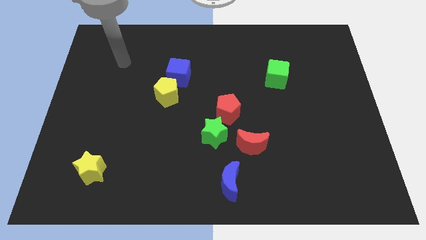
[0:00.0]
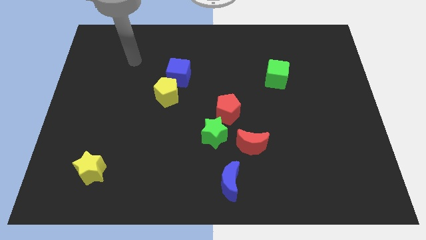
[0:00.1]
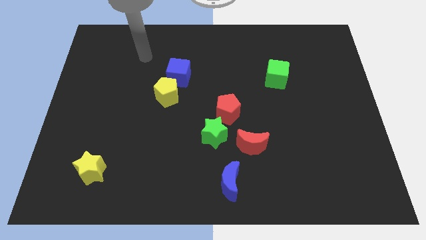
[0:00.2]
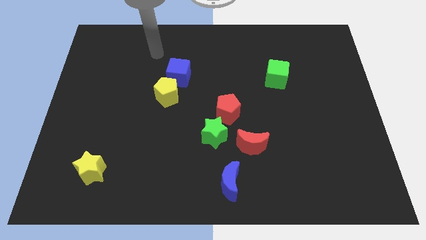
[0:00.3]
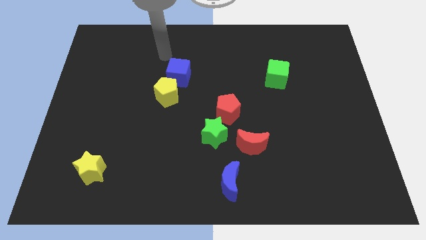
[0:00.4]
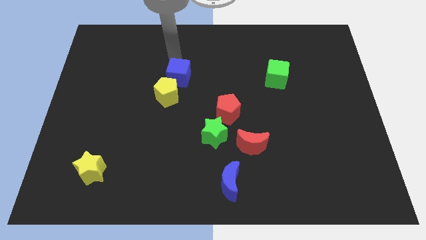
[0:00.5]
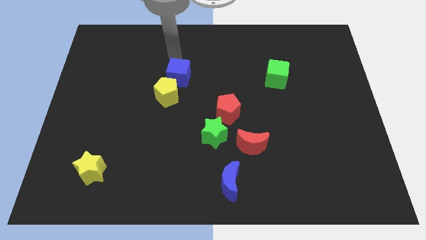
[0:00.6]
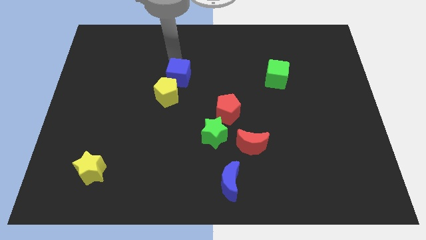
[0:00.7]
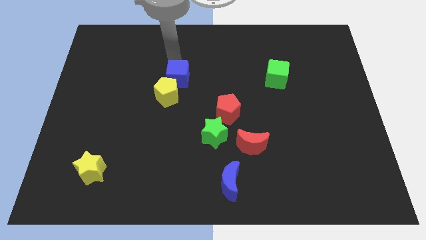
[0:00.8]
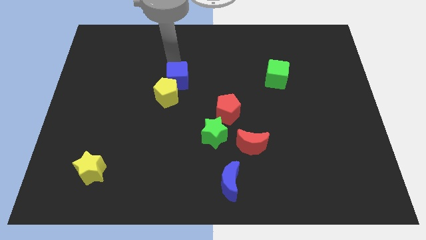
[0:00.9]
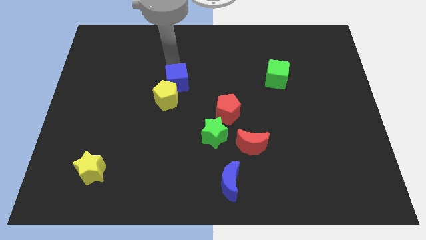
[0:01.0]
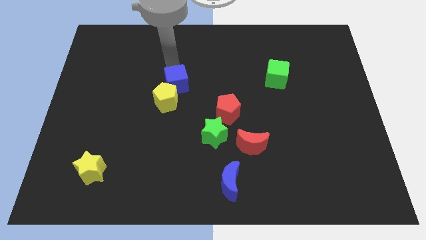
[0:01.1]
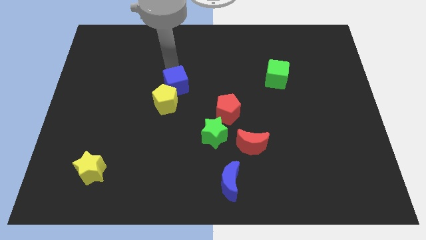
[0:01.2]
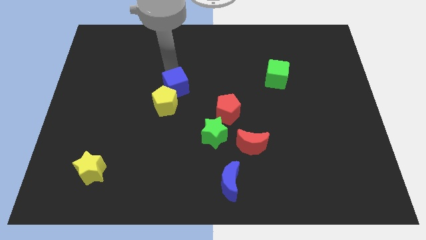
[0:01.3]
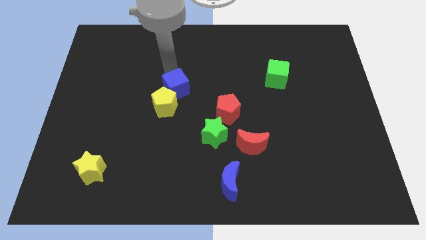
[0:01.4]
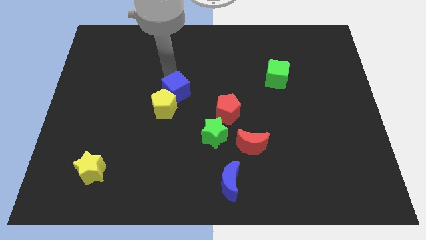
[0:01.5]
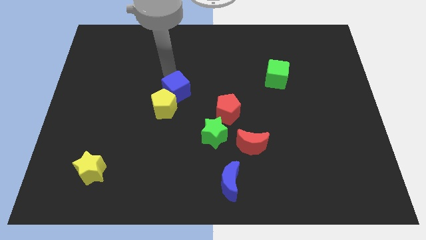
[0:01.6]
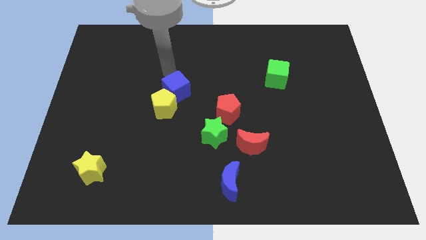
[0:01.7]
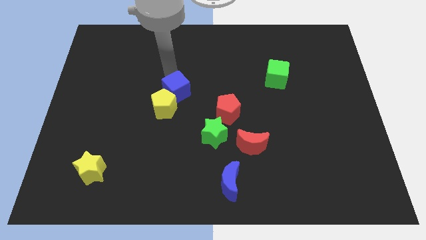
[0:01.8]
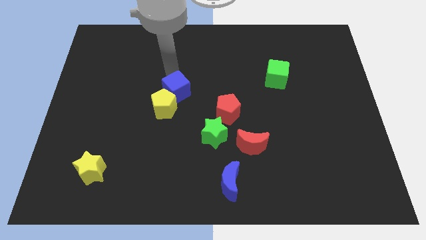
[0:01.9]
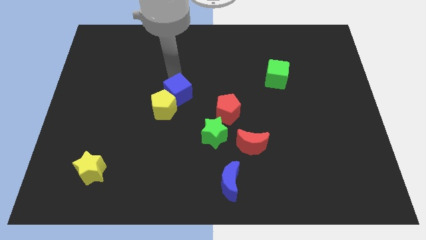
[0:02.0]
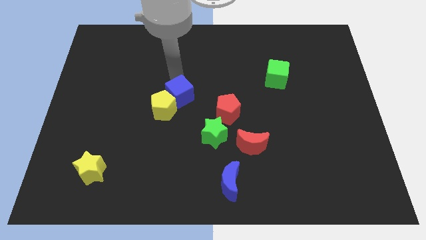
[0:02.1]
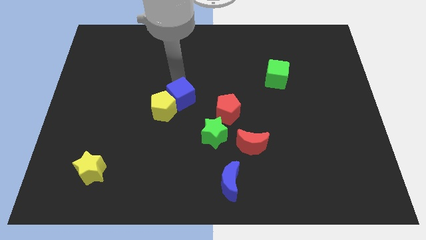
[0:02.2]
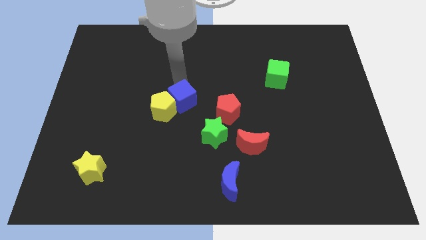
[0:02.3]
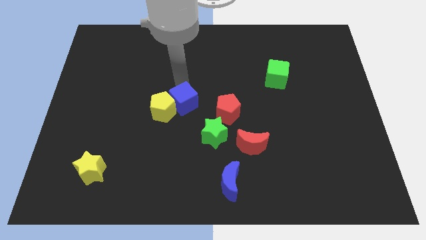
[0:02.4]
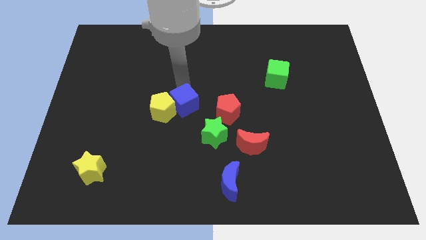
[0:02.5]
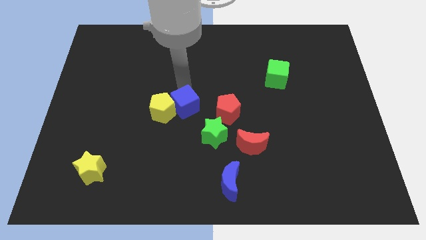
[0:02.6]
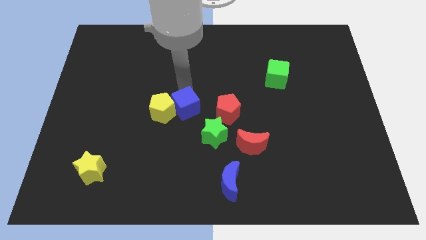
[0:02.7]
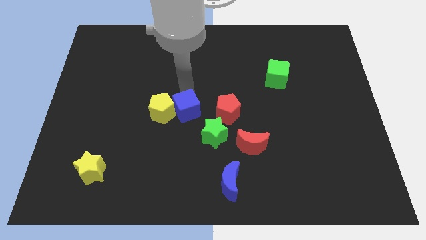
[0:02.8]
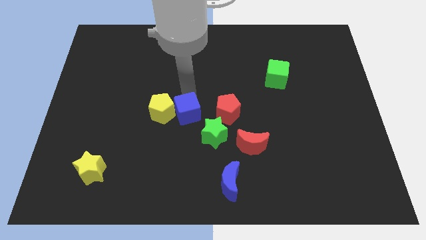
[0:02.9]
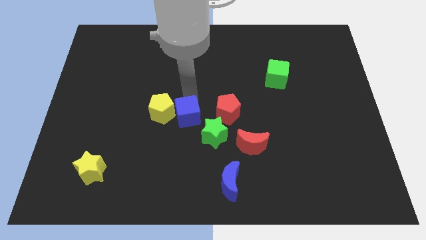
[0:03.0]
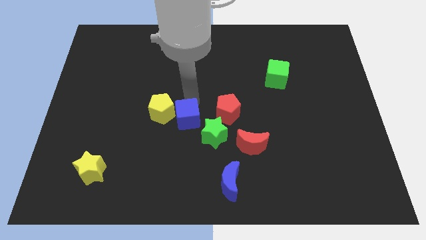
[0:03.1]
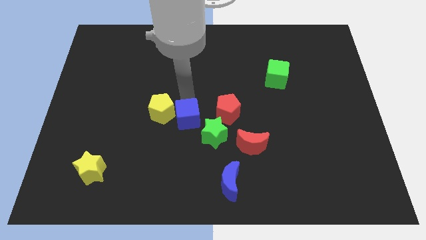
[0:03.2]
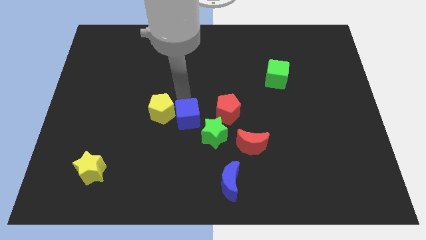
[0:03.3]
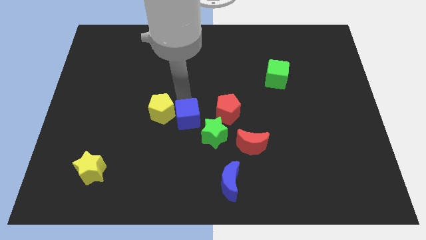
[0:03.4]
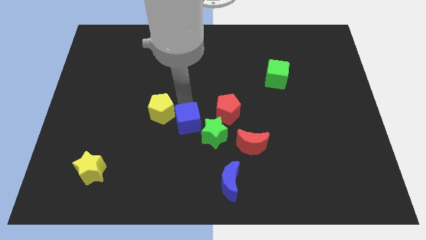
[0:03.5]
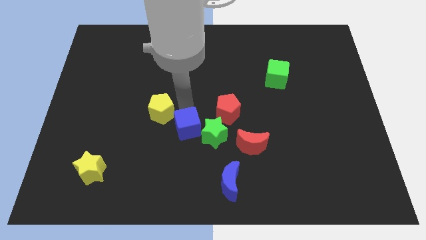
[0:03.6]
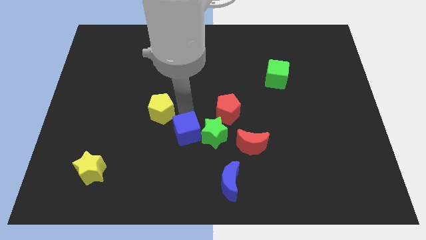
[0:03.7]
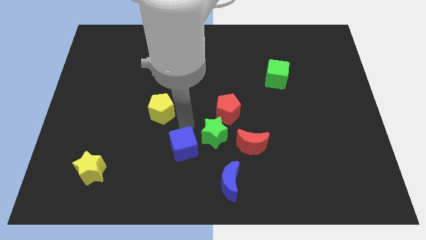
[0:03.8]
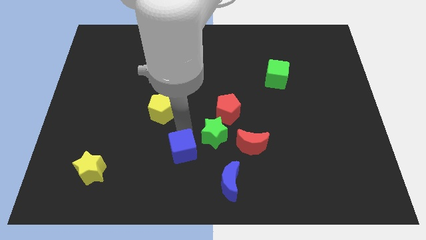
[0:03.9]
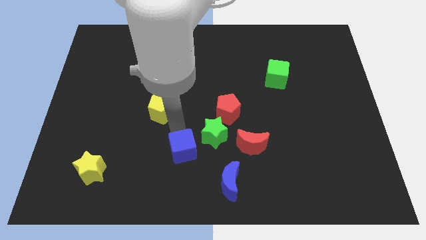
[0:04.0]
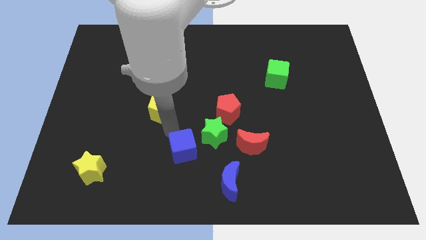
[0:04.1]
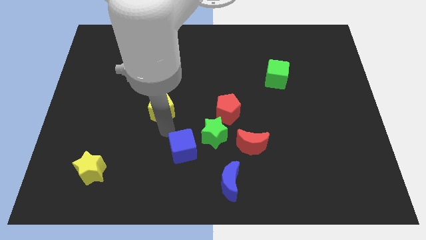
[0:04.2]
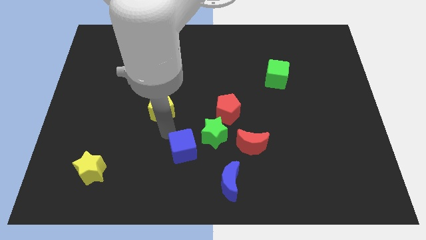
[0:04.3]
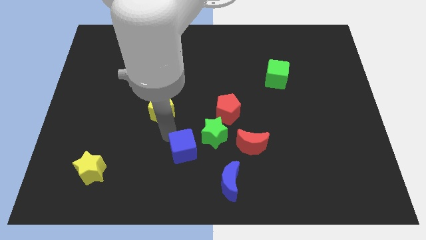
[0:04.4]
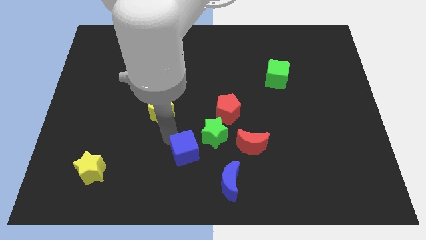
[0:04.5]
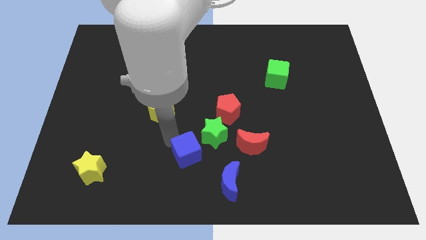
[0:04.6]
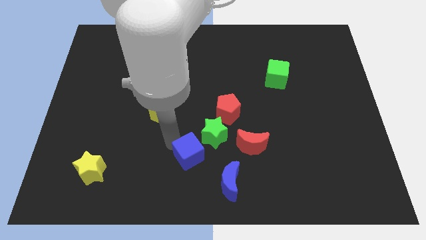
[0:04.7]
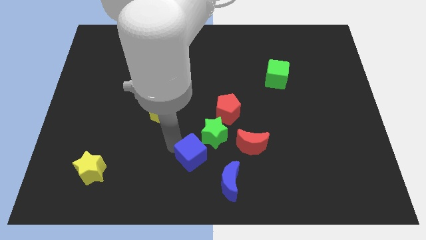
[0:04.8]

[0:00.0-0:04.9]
move the blue cube to the bottom

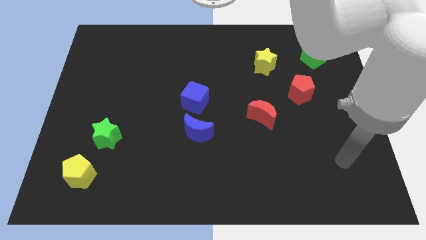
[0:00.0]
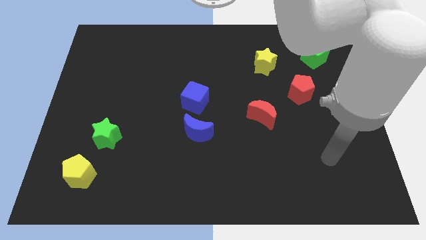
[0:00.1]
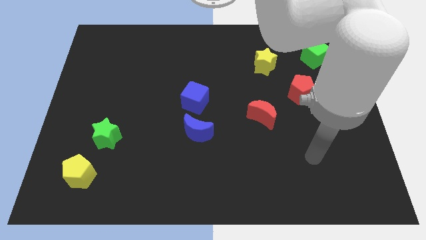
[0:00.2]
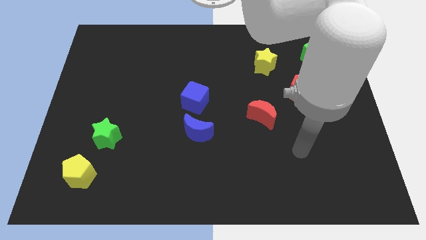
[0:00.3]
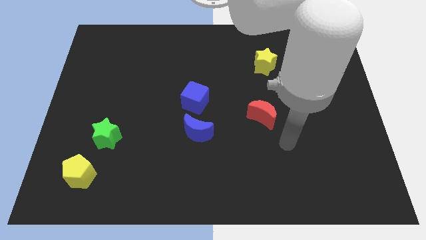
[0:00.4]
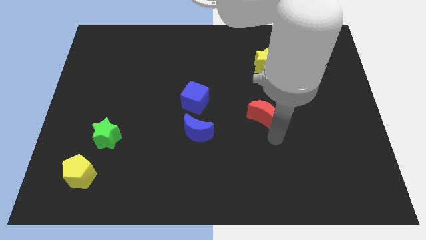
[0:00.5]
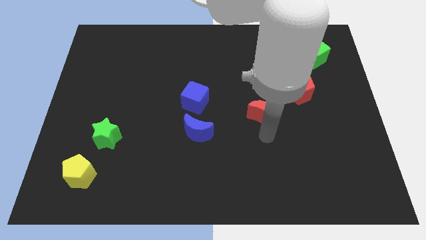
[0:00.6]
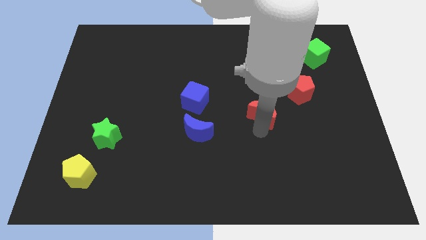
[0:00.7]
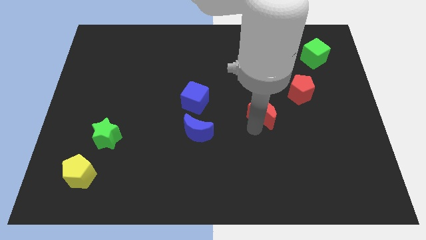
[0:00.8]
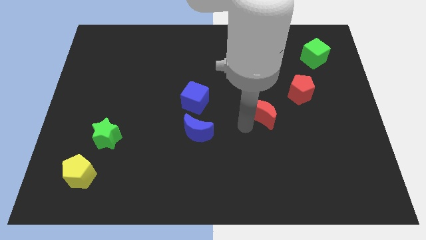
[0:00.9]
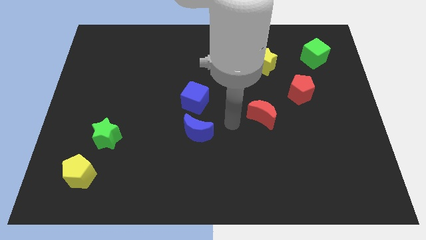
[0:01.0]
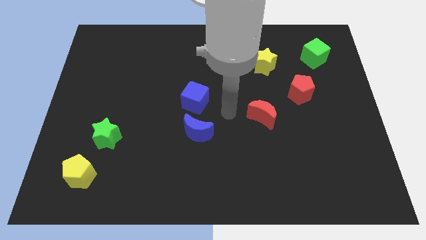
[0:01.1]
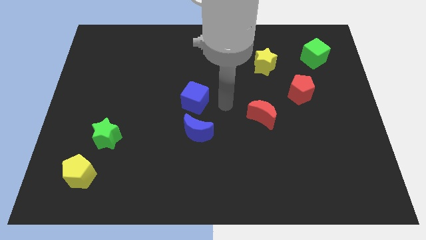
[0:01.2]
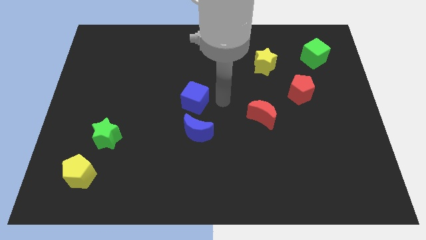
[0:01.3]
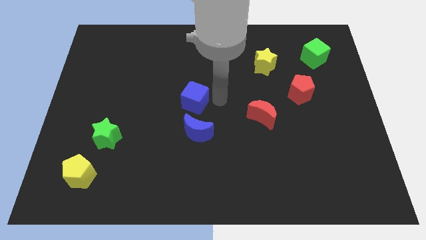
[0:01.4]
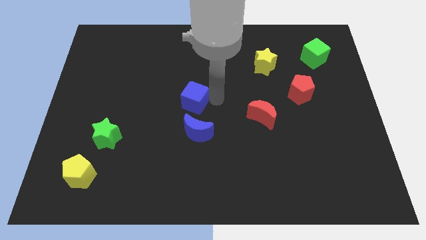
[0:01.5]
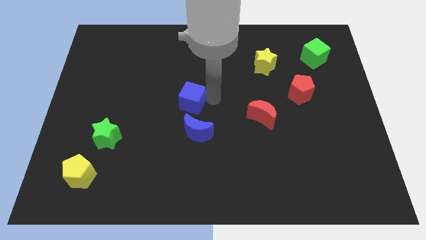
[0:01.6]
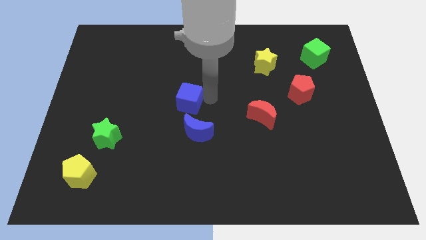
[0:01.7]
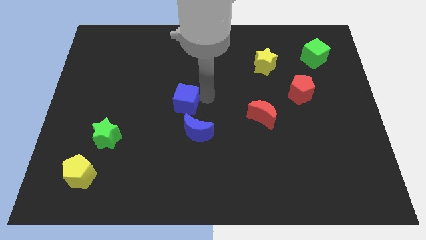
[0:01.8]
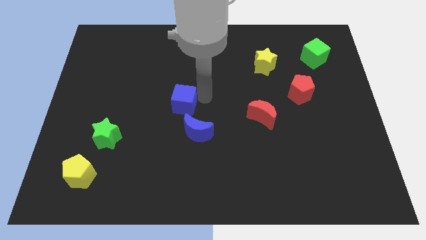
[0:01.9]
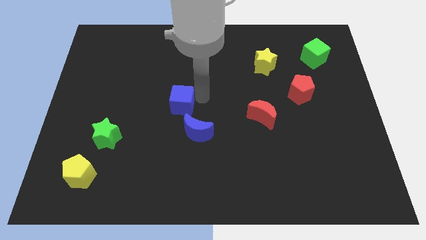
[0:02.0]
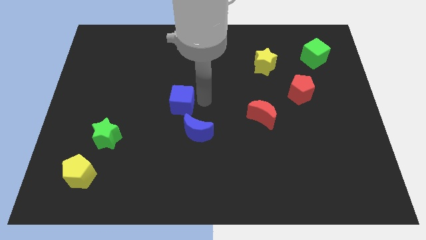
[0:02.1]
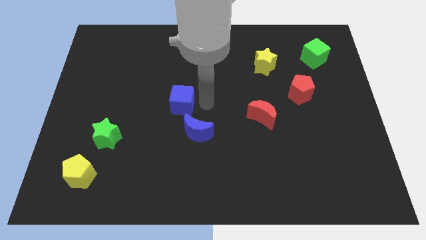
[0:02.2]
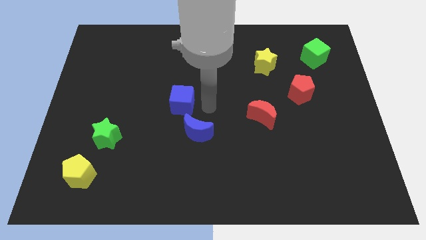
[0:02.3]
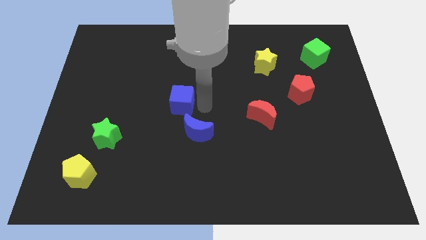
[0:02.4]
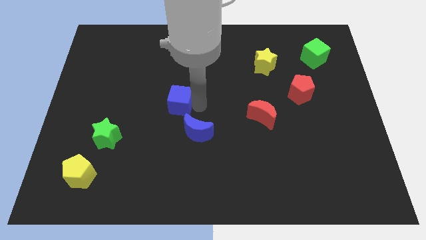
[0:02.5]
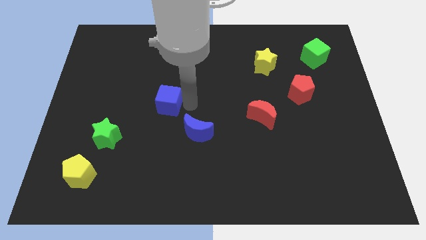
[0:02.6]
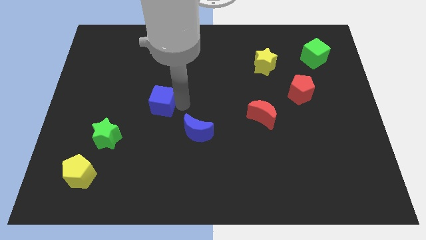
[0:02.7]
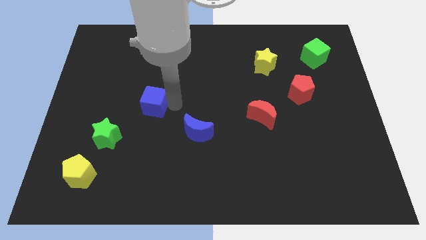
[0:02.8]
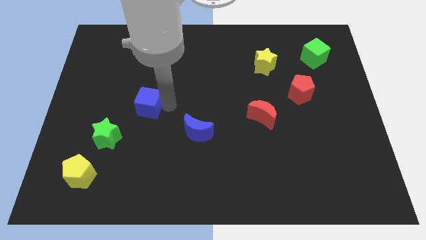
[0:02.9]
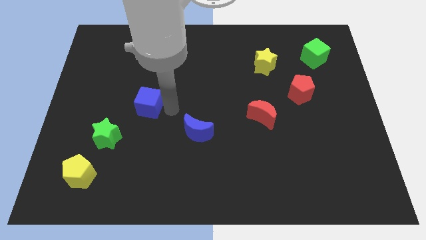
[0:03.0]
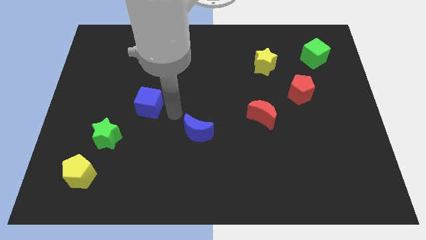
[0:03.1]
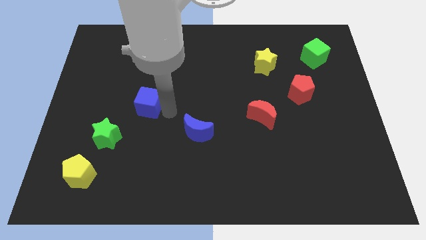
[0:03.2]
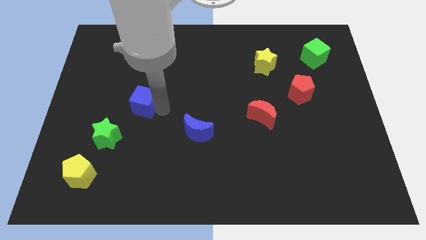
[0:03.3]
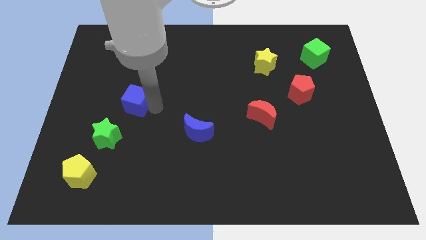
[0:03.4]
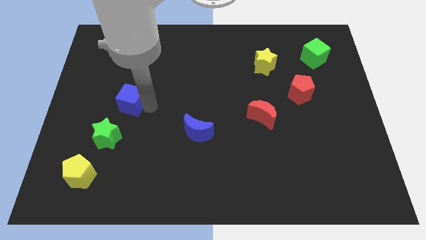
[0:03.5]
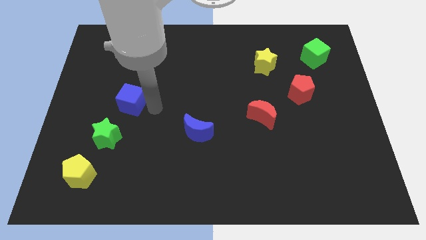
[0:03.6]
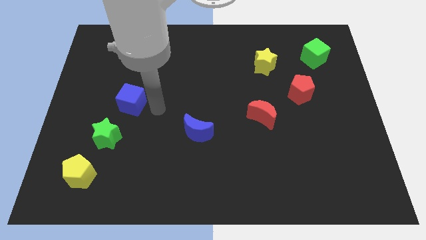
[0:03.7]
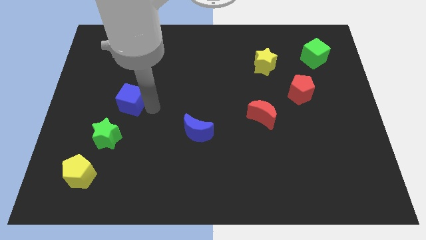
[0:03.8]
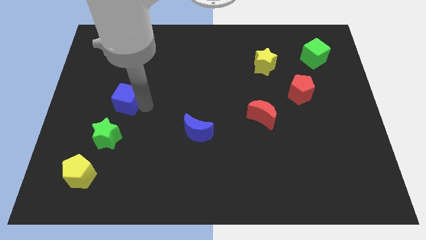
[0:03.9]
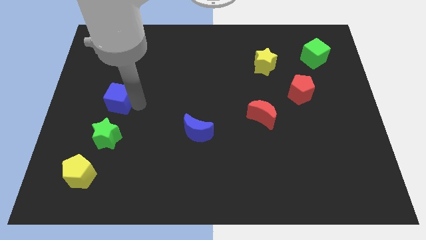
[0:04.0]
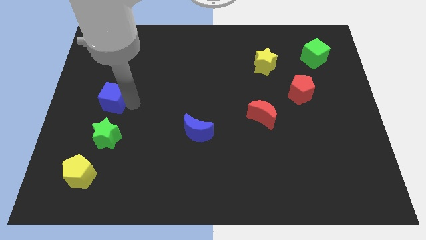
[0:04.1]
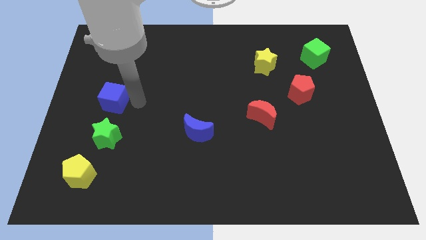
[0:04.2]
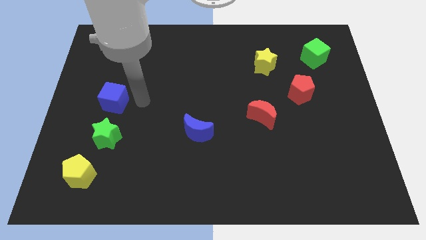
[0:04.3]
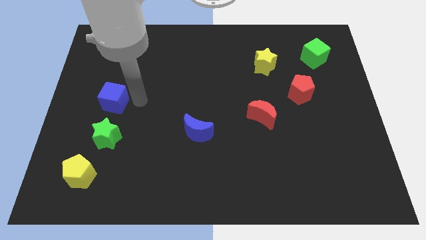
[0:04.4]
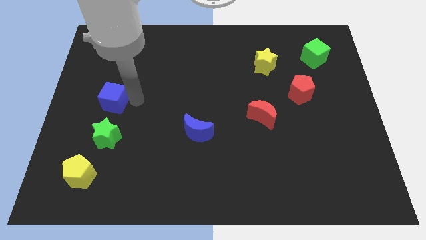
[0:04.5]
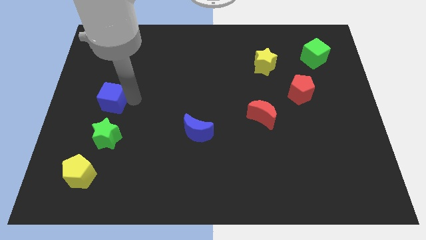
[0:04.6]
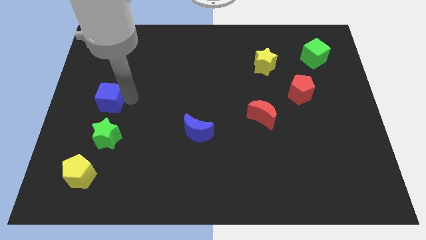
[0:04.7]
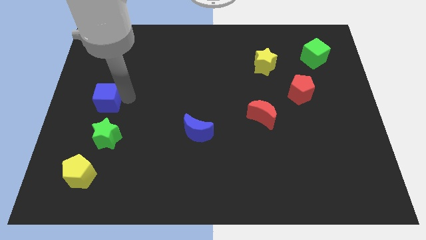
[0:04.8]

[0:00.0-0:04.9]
move the blue cube to the center left
